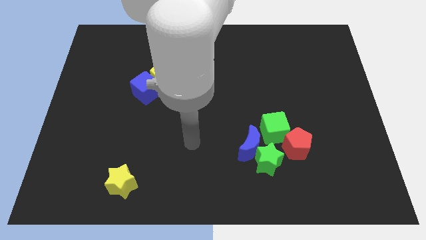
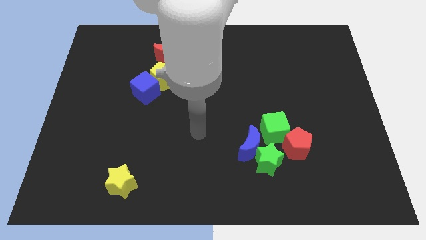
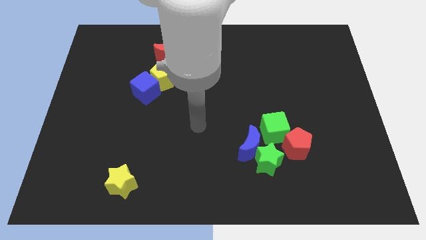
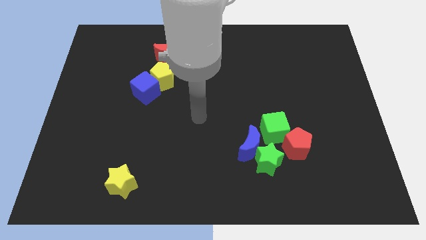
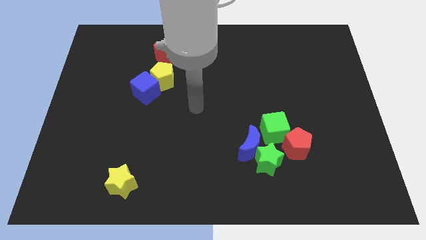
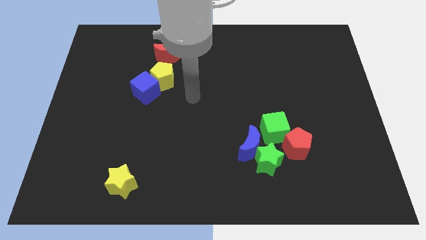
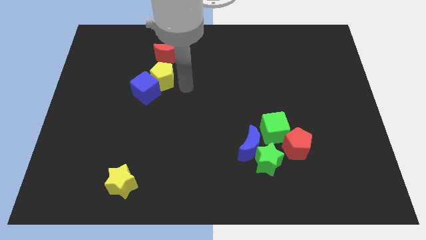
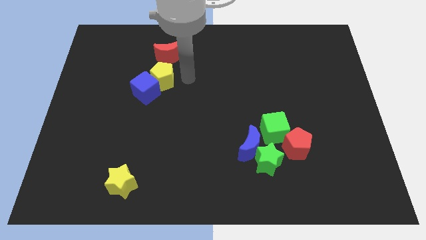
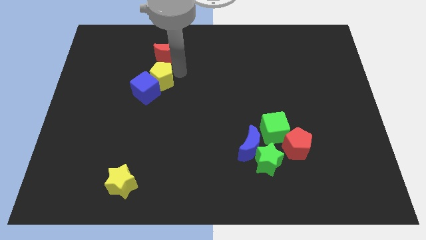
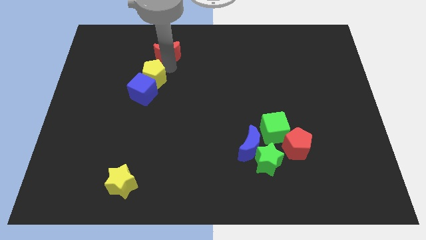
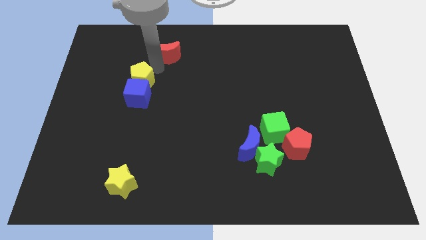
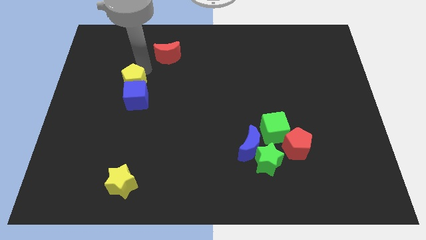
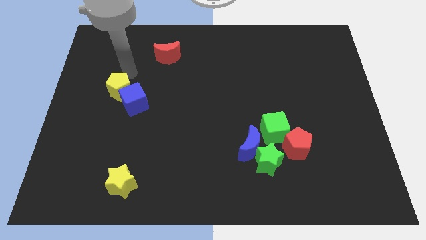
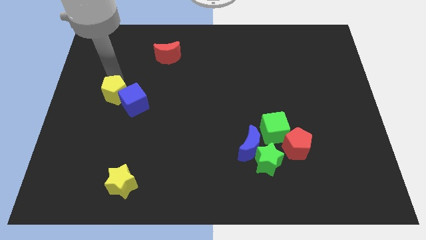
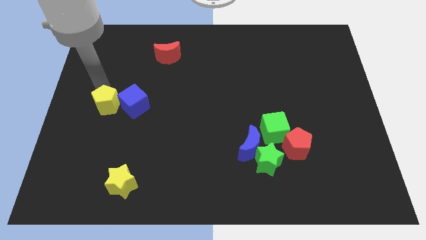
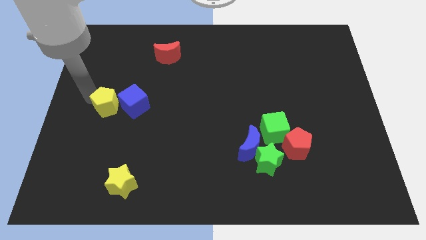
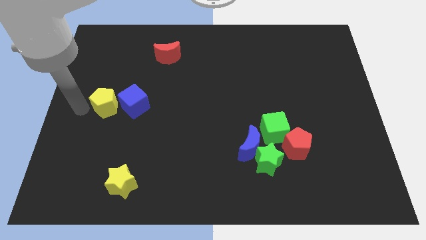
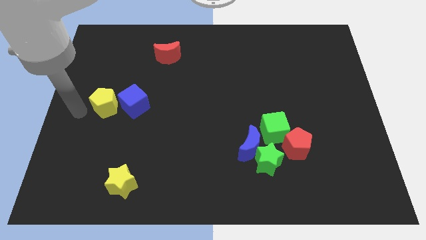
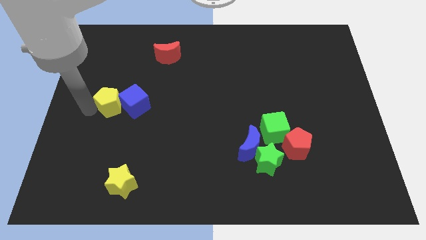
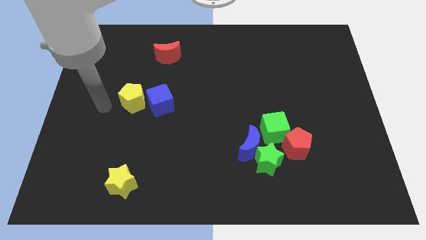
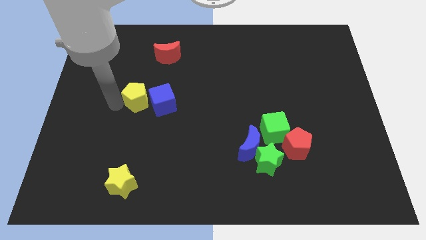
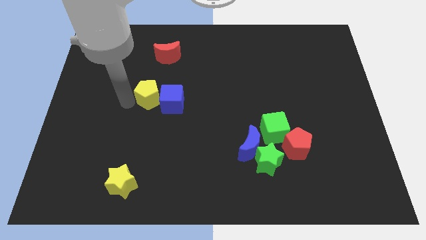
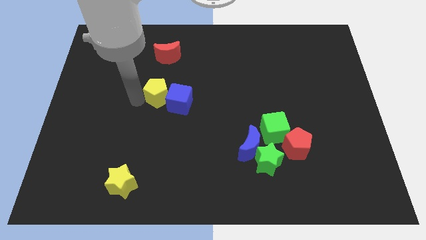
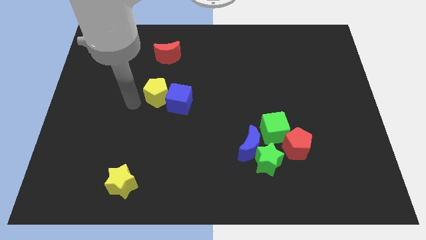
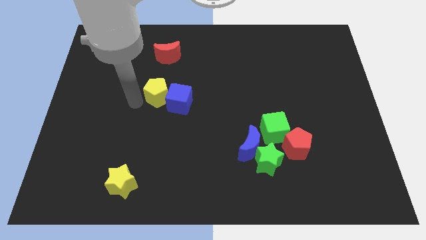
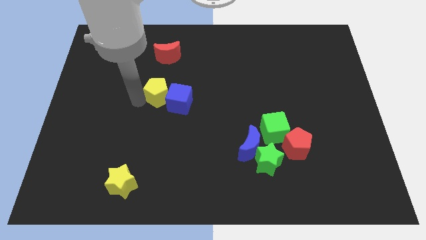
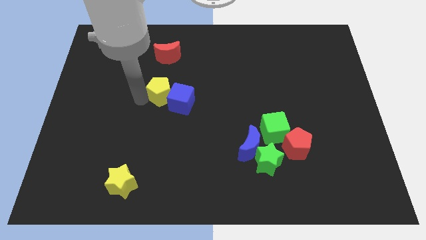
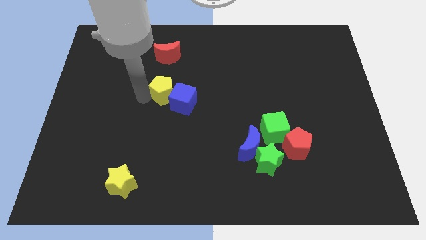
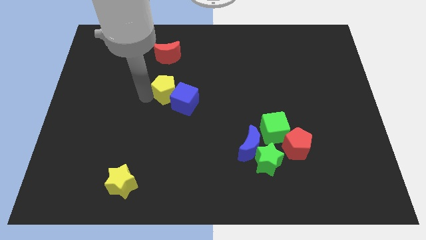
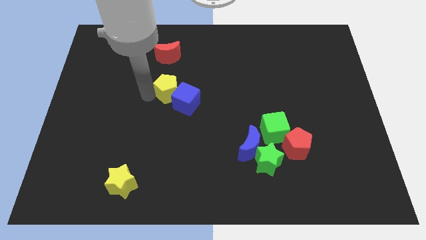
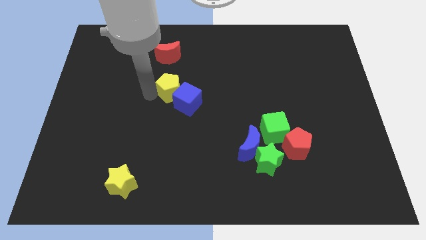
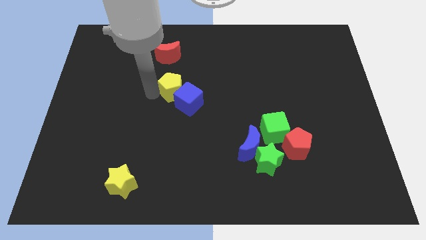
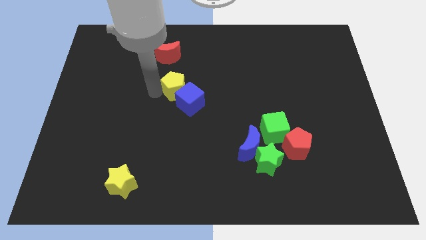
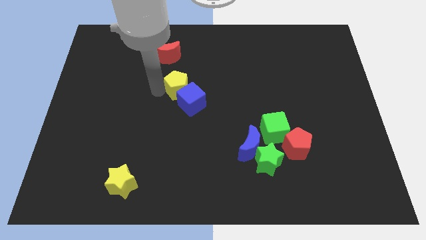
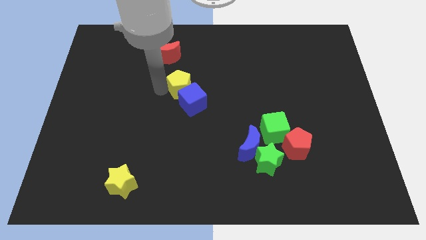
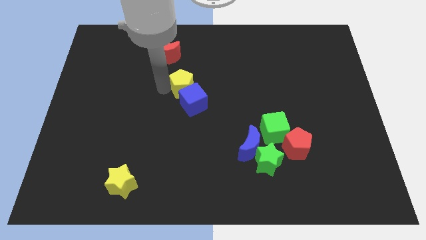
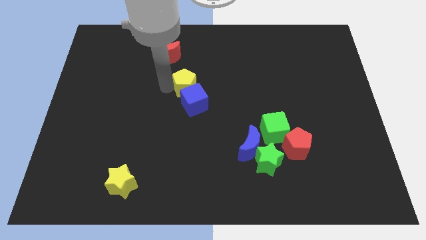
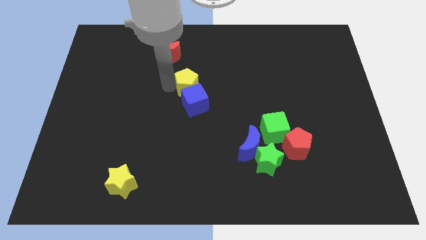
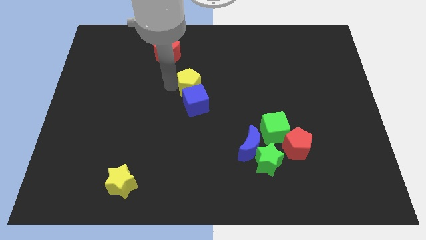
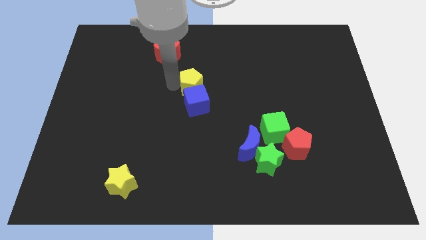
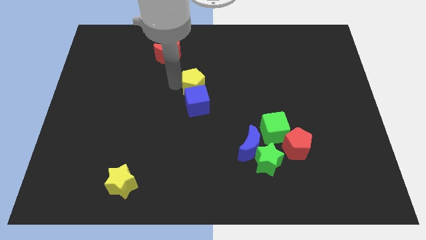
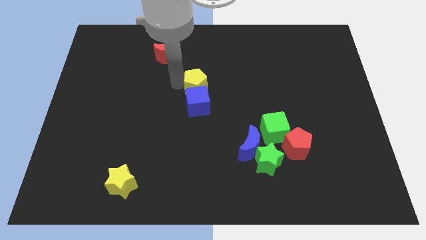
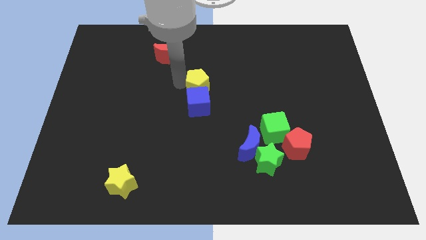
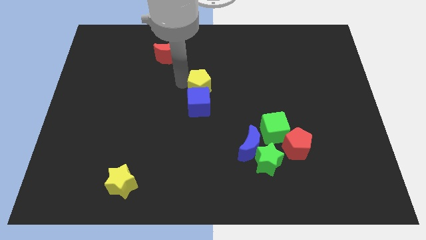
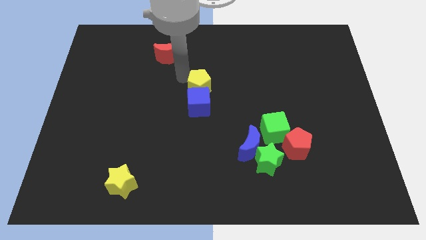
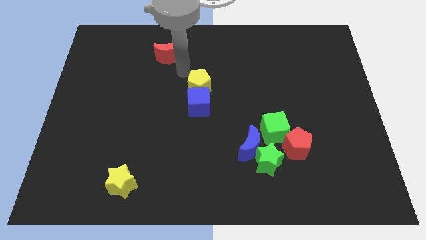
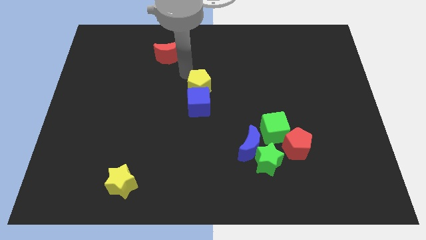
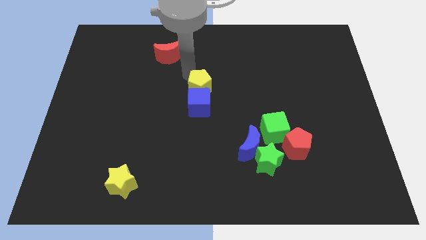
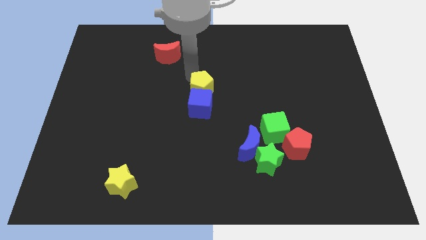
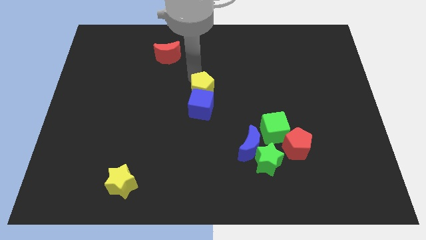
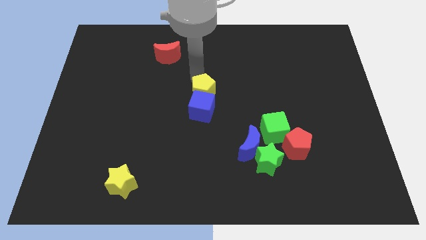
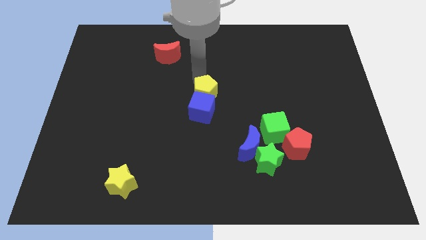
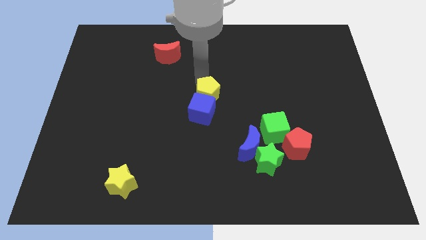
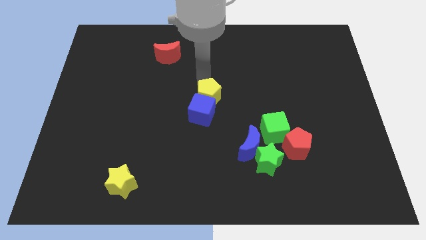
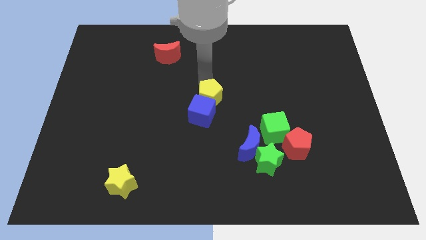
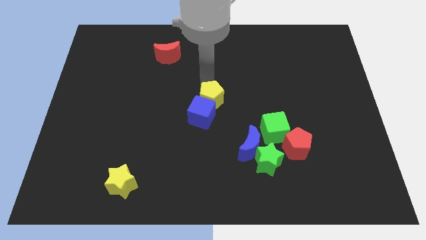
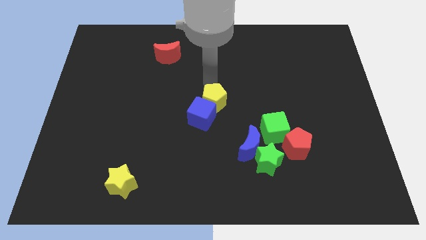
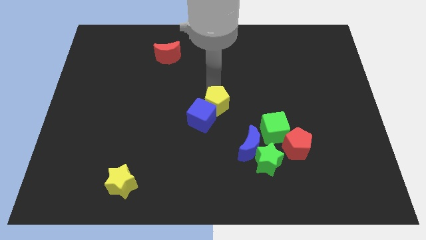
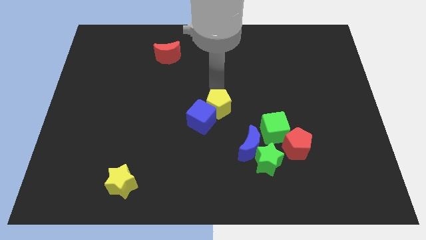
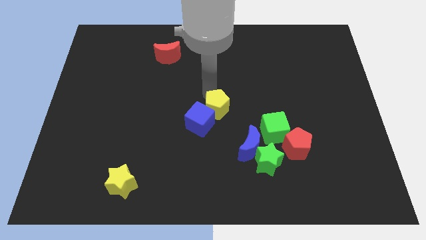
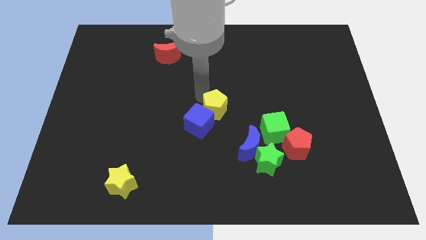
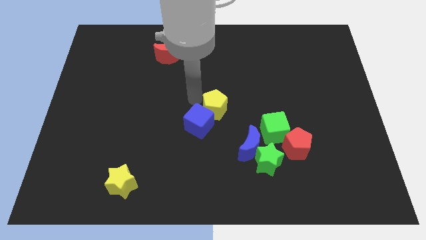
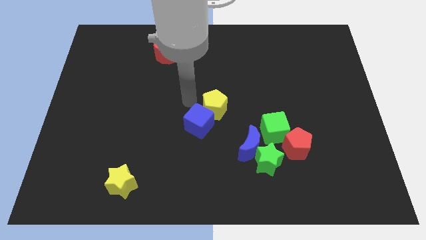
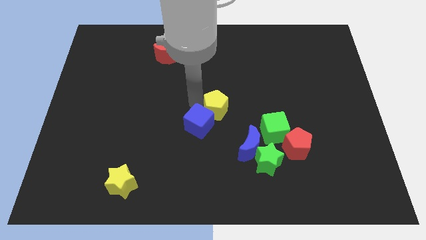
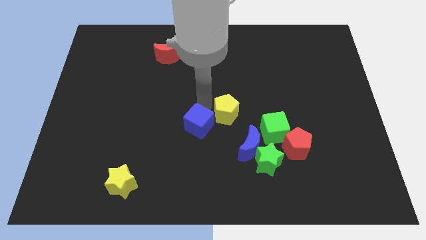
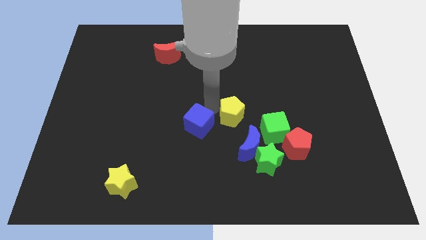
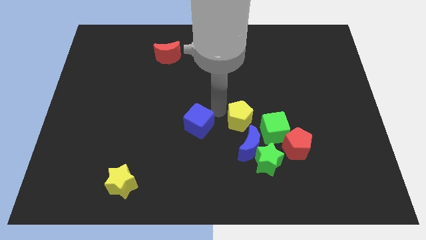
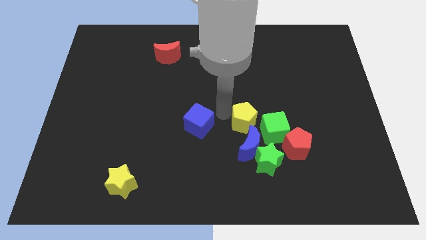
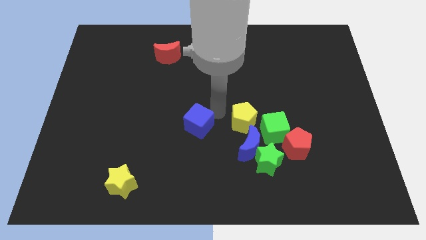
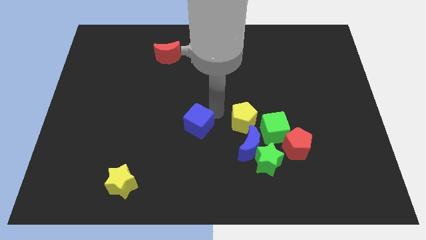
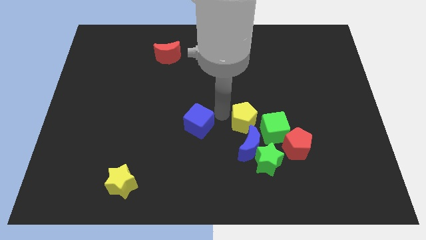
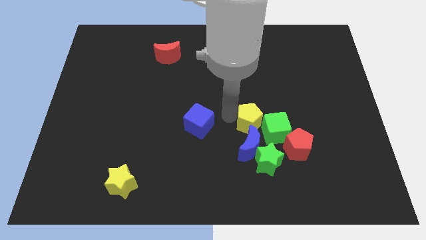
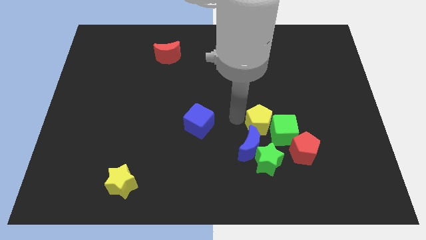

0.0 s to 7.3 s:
push the yellow pentagon towards the green cube
